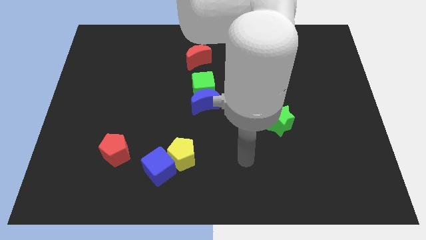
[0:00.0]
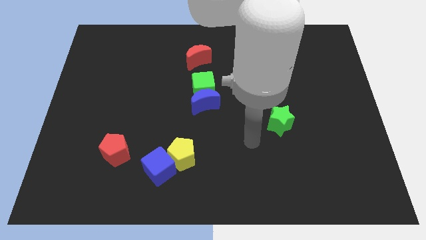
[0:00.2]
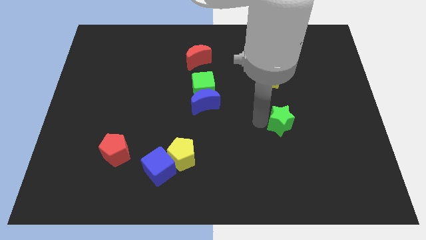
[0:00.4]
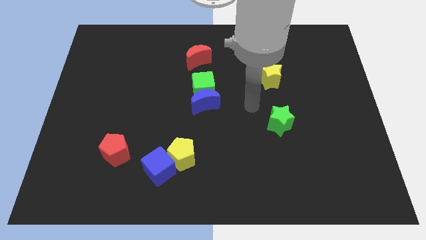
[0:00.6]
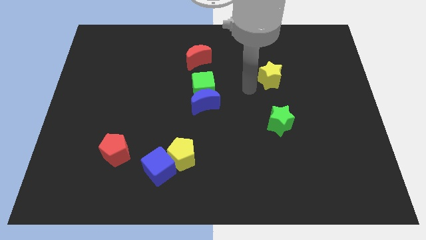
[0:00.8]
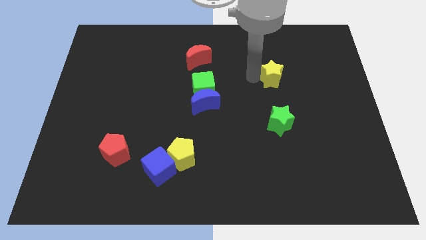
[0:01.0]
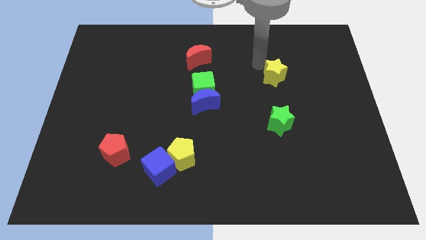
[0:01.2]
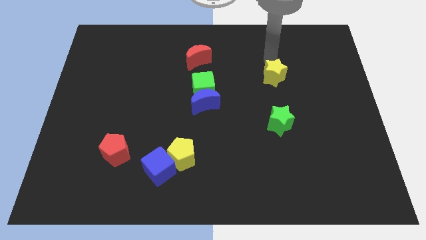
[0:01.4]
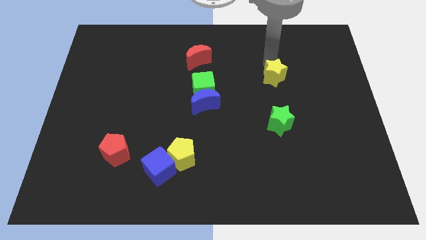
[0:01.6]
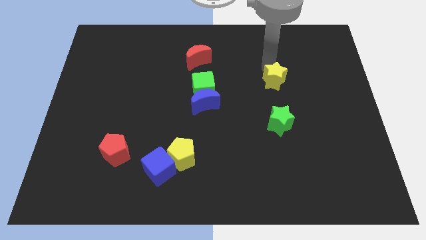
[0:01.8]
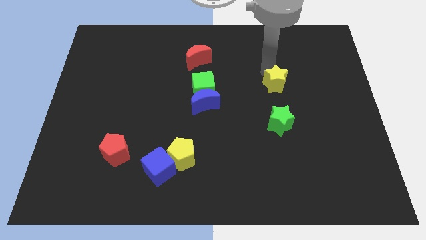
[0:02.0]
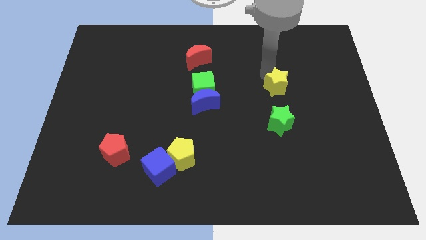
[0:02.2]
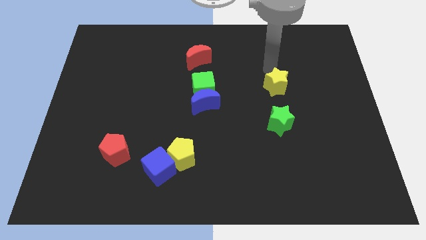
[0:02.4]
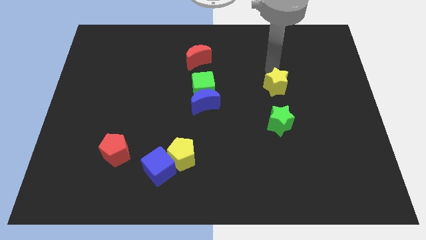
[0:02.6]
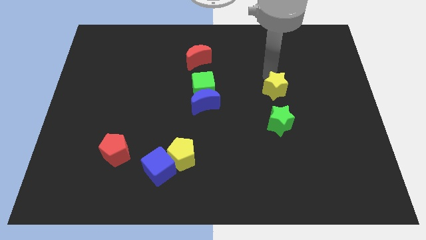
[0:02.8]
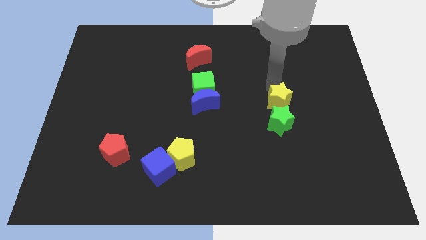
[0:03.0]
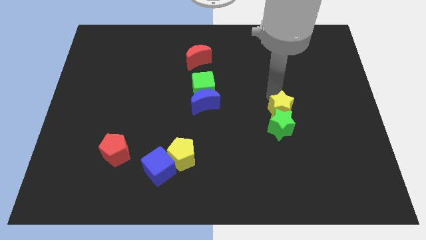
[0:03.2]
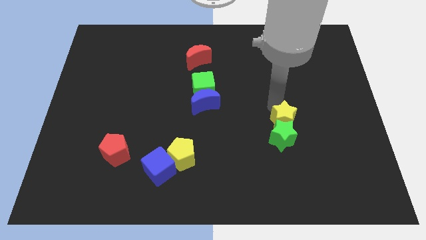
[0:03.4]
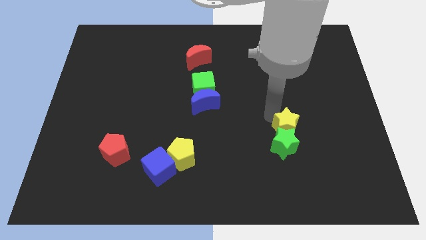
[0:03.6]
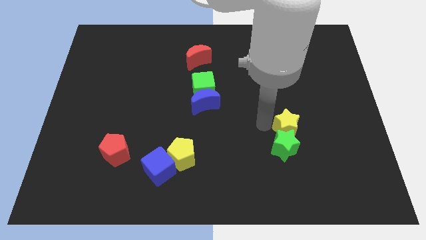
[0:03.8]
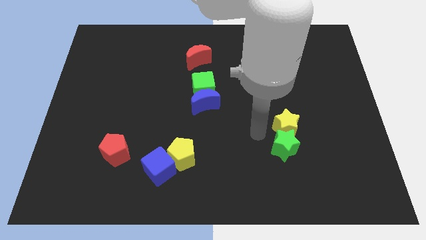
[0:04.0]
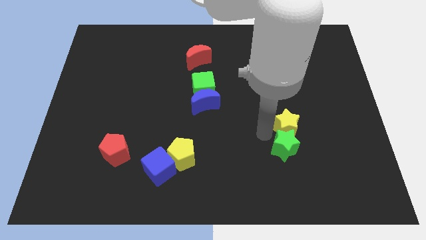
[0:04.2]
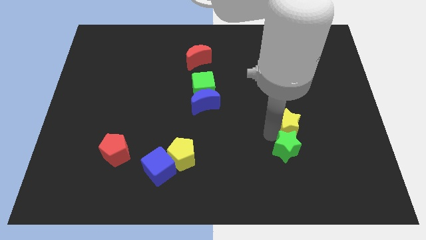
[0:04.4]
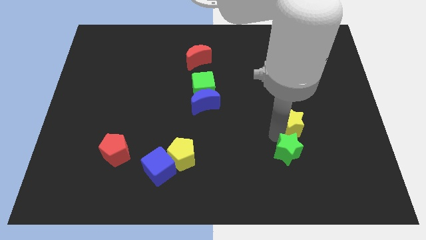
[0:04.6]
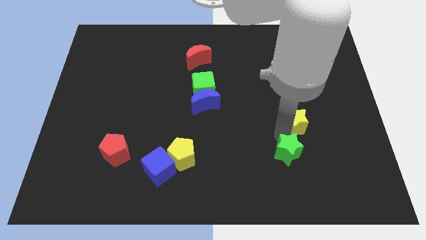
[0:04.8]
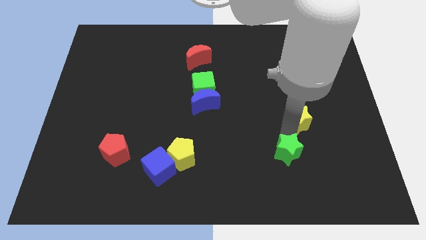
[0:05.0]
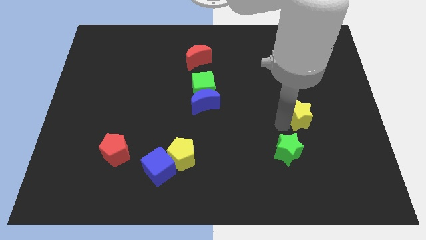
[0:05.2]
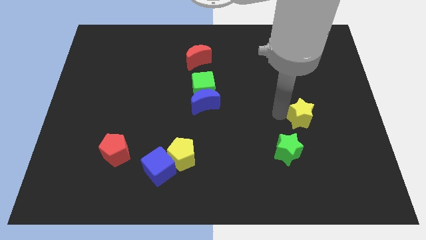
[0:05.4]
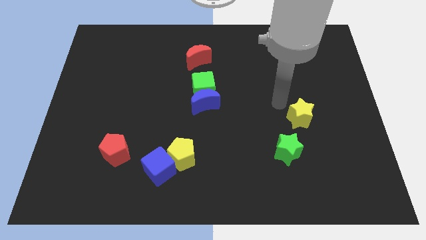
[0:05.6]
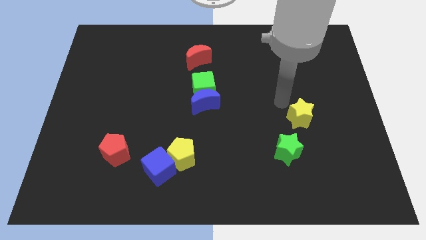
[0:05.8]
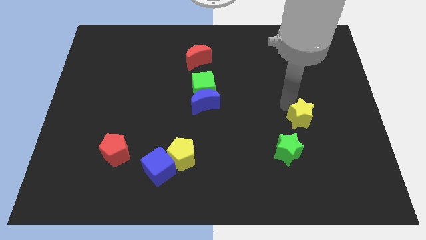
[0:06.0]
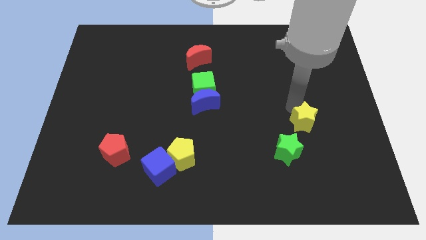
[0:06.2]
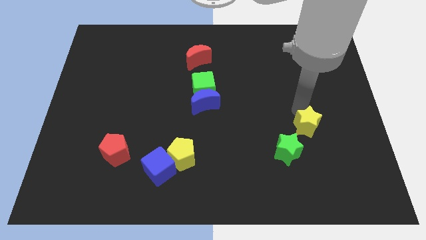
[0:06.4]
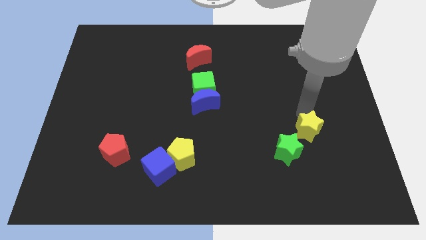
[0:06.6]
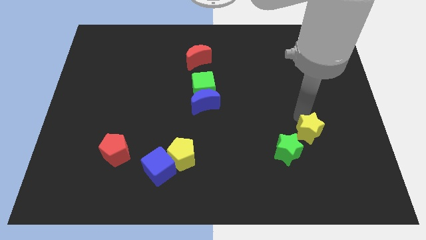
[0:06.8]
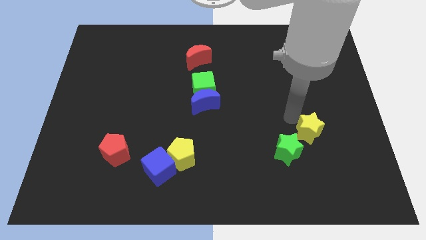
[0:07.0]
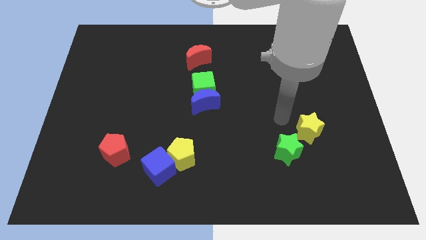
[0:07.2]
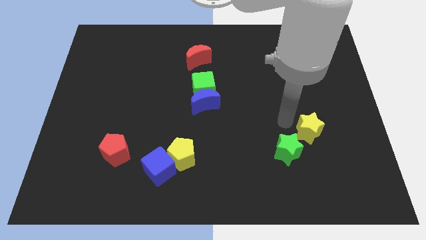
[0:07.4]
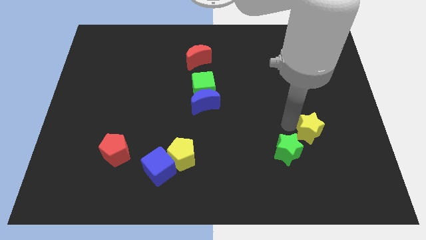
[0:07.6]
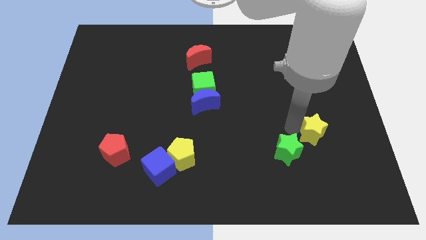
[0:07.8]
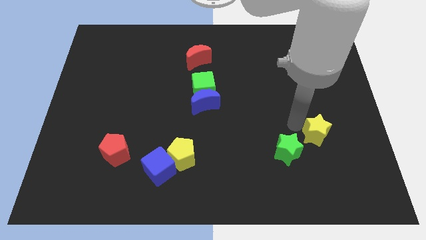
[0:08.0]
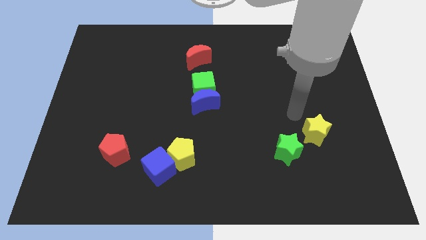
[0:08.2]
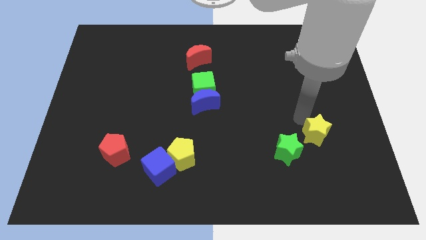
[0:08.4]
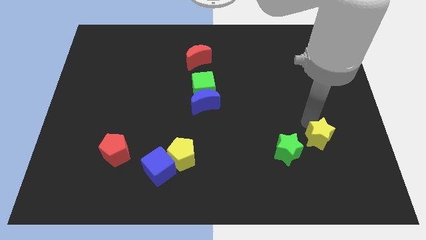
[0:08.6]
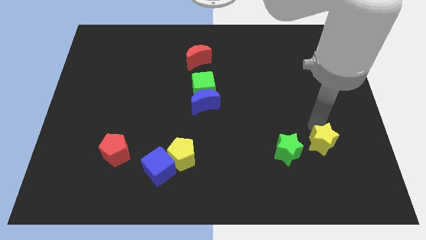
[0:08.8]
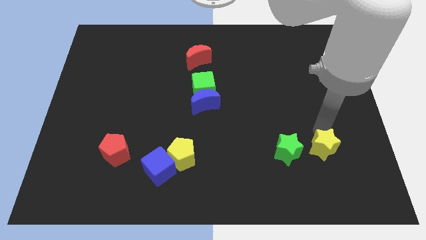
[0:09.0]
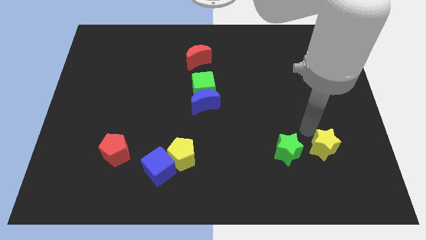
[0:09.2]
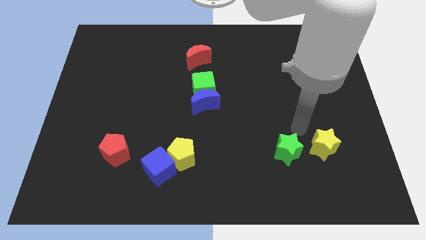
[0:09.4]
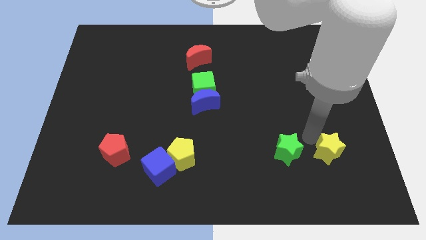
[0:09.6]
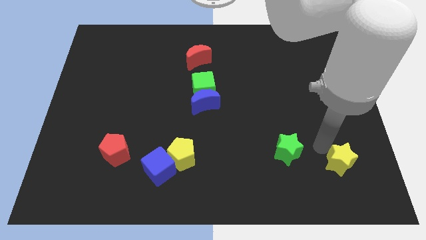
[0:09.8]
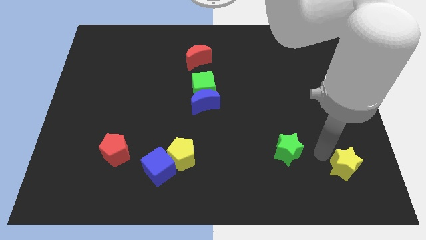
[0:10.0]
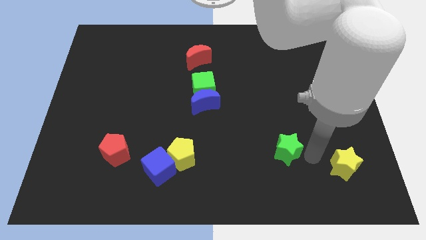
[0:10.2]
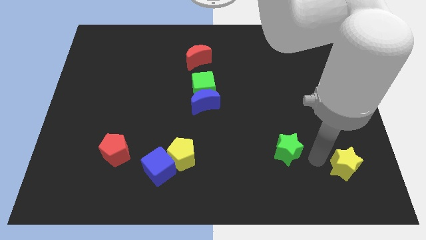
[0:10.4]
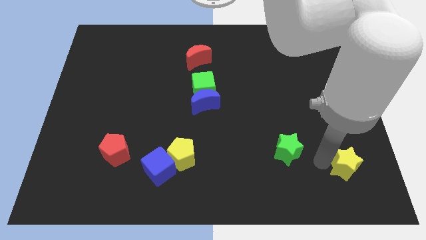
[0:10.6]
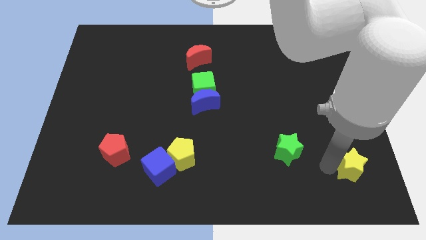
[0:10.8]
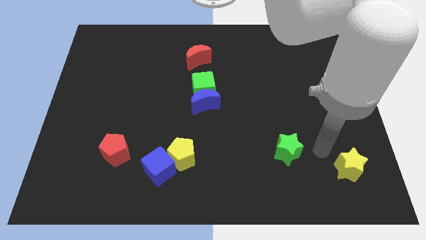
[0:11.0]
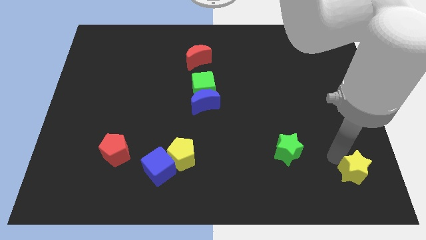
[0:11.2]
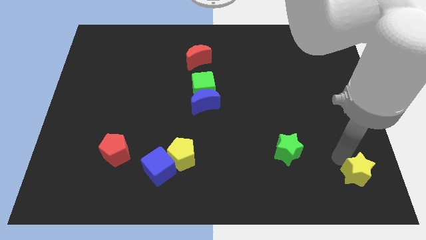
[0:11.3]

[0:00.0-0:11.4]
slide the yellow star to the bottom right corner

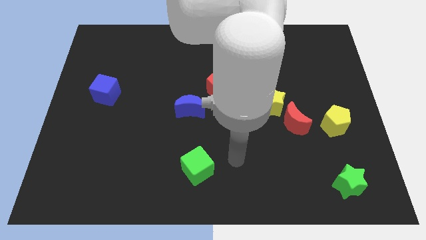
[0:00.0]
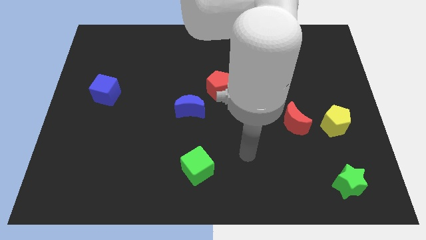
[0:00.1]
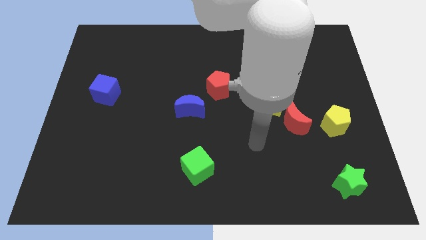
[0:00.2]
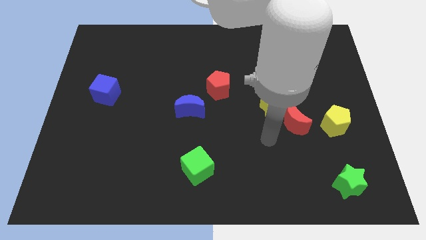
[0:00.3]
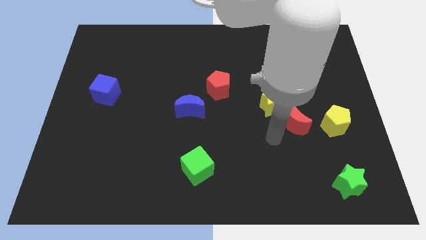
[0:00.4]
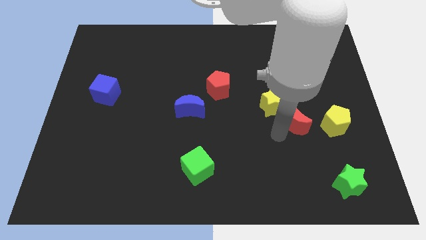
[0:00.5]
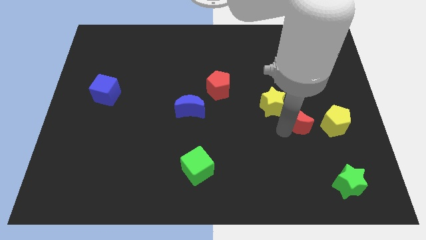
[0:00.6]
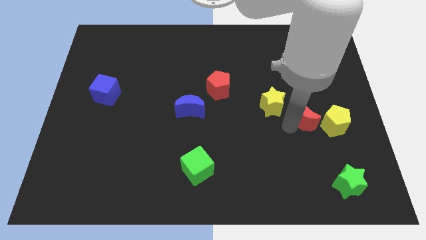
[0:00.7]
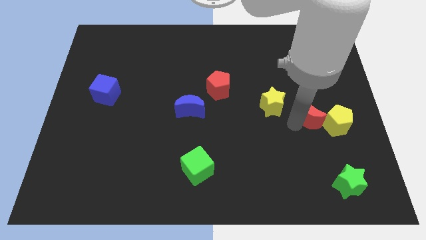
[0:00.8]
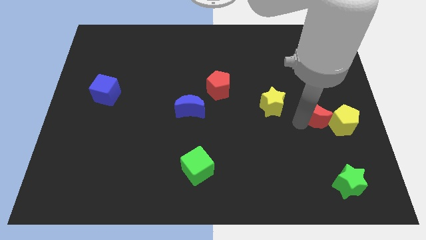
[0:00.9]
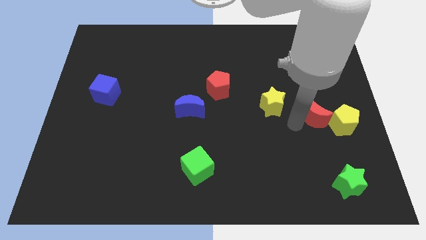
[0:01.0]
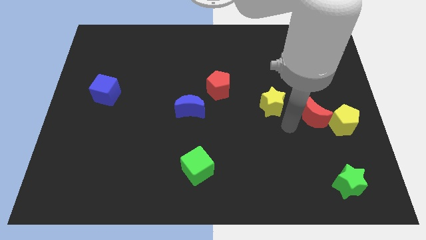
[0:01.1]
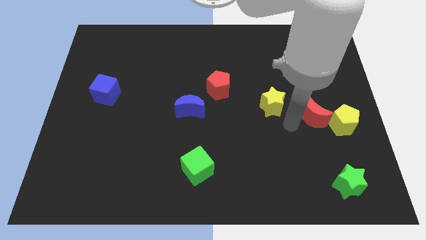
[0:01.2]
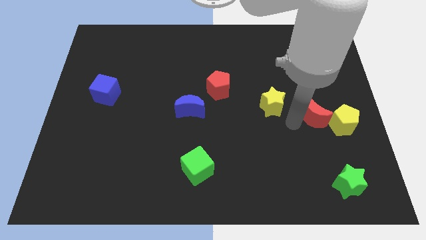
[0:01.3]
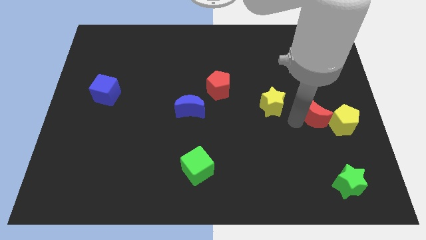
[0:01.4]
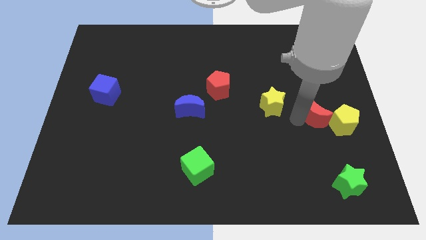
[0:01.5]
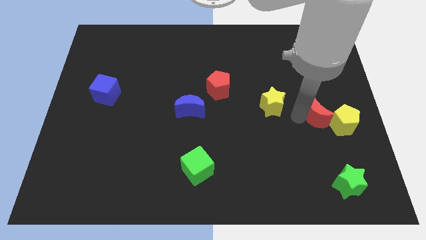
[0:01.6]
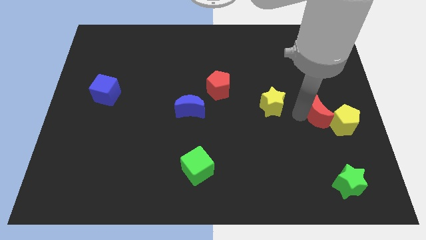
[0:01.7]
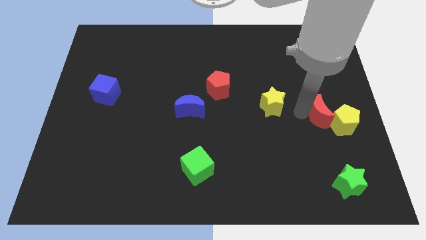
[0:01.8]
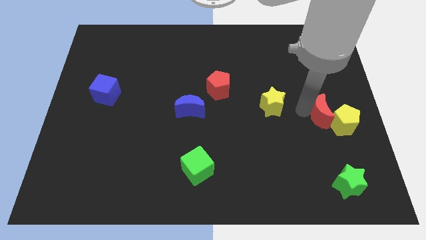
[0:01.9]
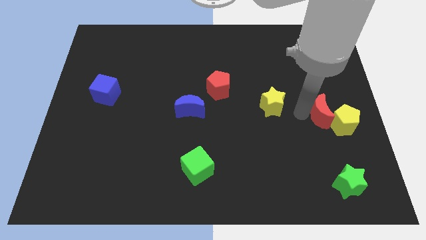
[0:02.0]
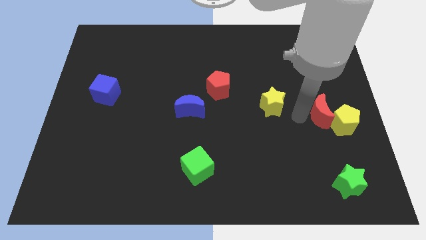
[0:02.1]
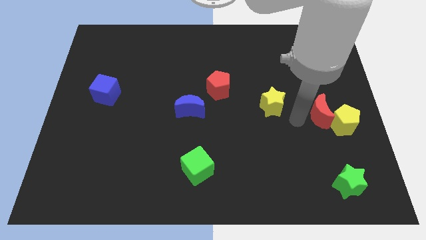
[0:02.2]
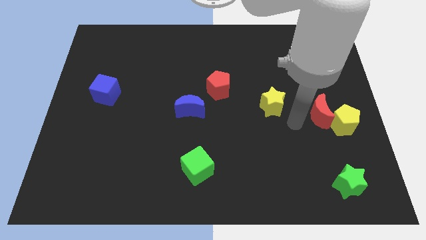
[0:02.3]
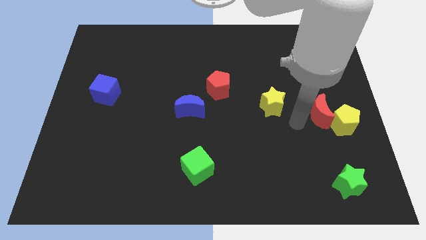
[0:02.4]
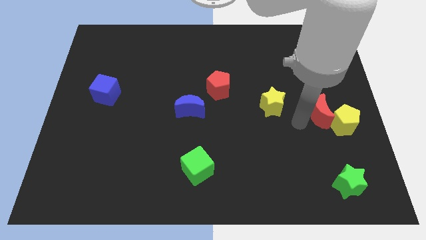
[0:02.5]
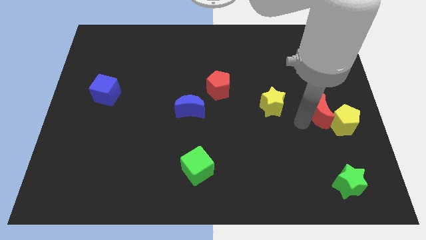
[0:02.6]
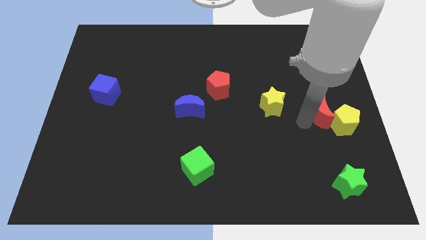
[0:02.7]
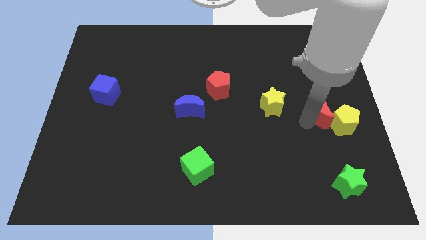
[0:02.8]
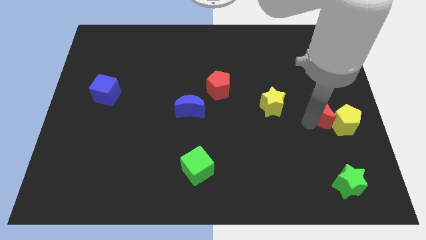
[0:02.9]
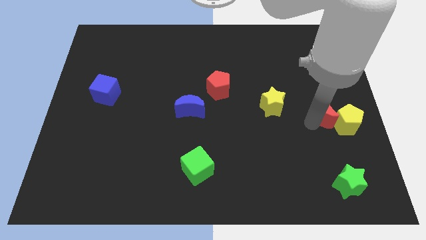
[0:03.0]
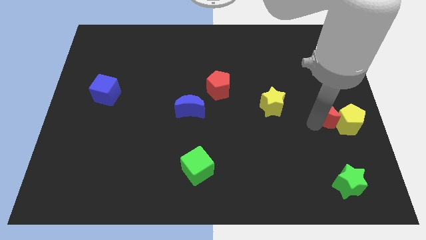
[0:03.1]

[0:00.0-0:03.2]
slide the red moon to the center right
